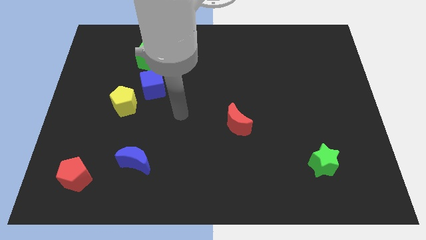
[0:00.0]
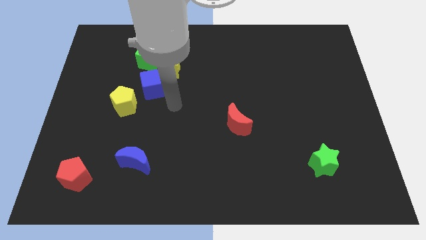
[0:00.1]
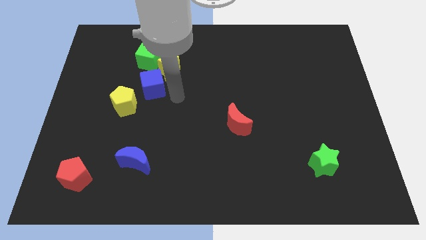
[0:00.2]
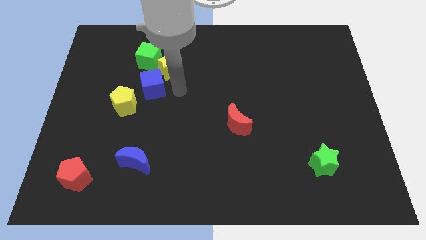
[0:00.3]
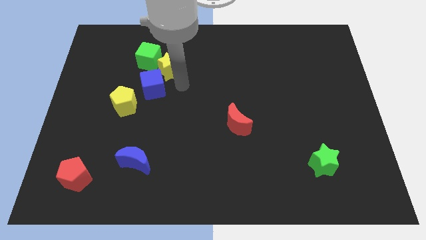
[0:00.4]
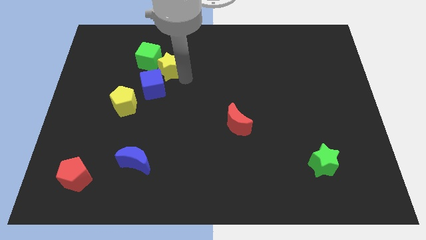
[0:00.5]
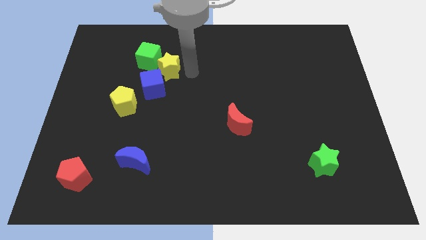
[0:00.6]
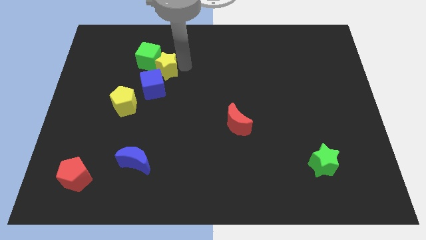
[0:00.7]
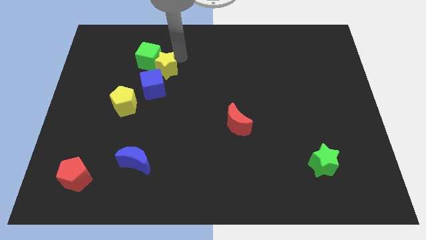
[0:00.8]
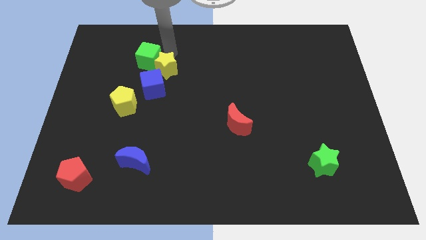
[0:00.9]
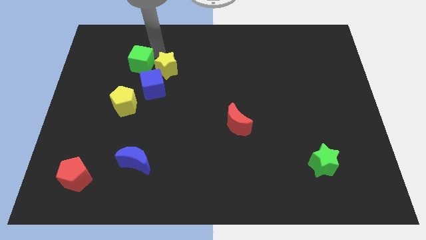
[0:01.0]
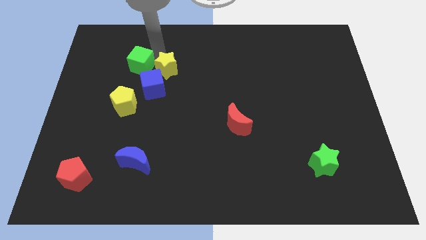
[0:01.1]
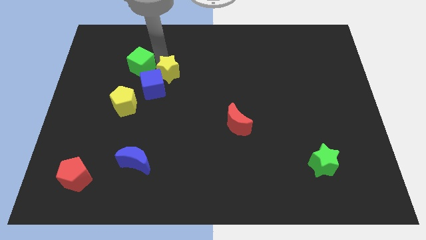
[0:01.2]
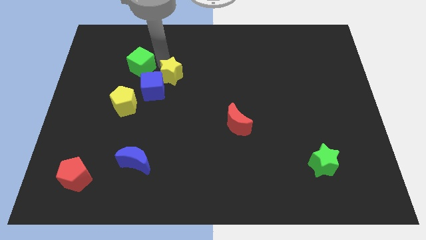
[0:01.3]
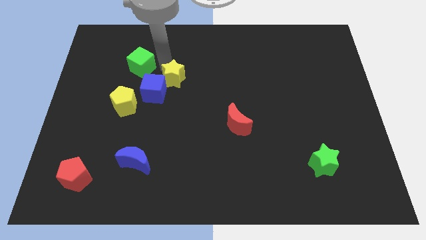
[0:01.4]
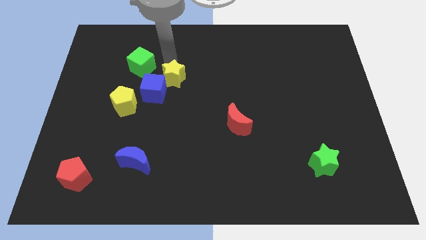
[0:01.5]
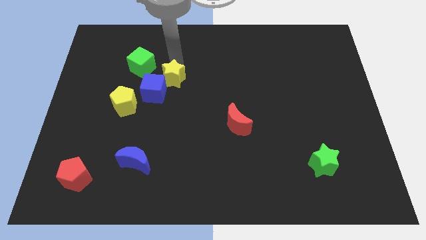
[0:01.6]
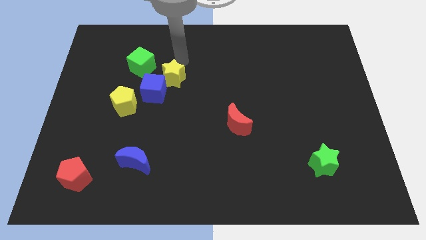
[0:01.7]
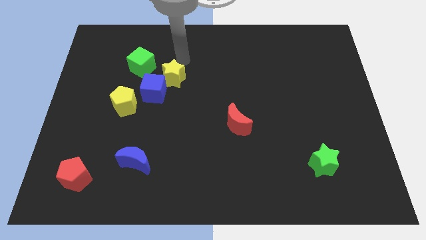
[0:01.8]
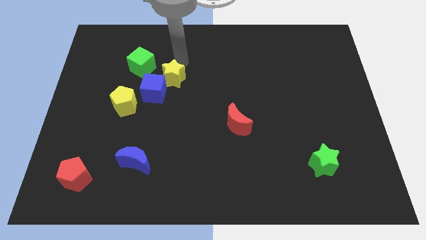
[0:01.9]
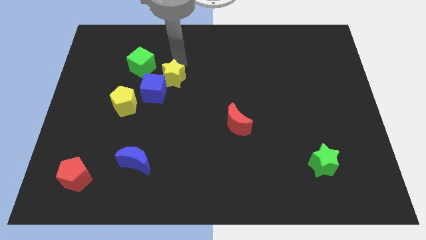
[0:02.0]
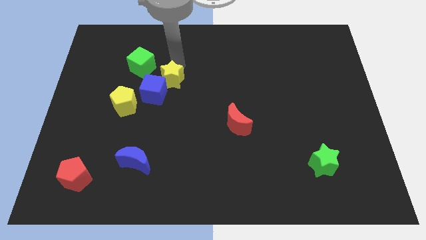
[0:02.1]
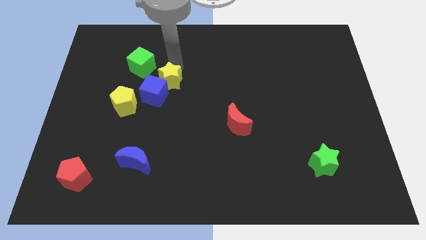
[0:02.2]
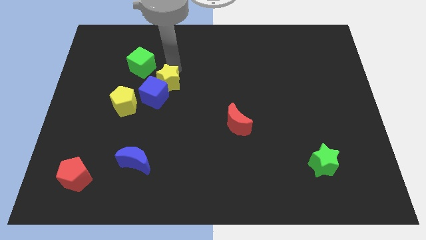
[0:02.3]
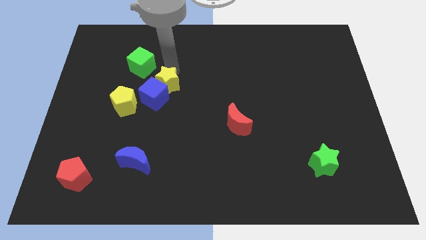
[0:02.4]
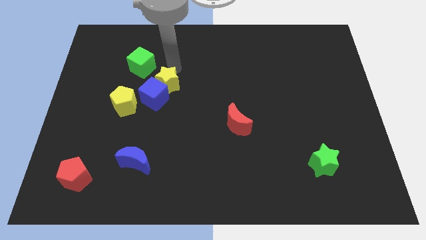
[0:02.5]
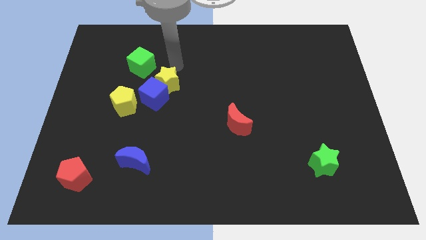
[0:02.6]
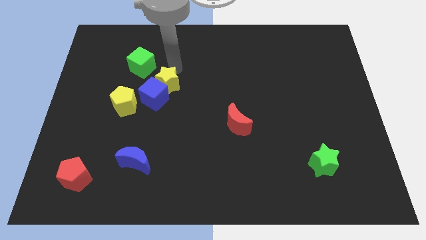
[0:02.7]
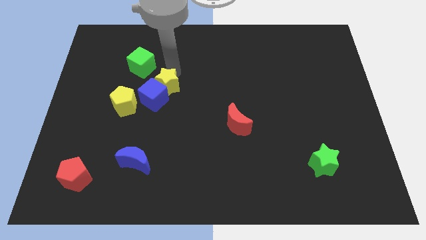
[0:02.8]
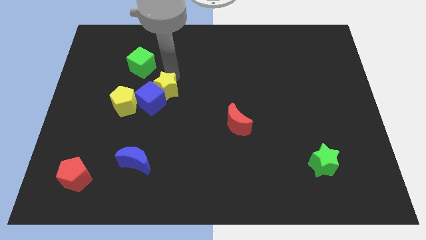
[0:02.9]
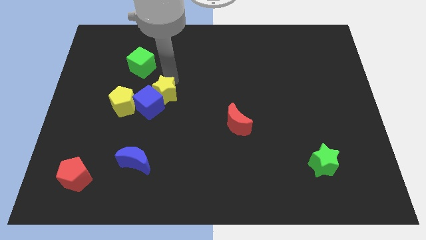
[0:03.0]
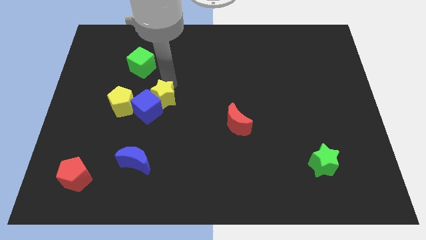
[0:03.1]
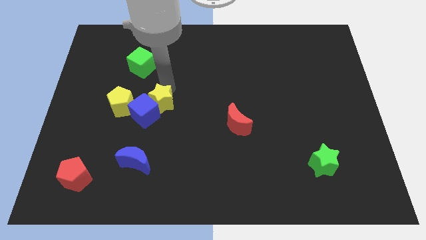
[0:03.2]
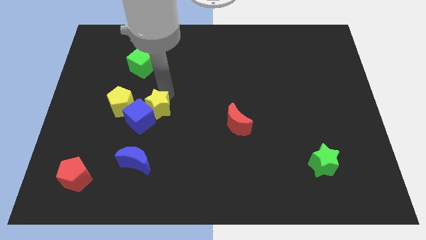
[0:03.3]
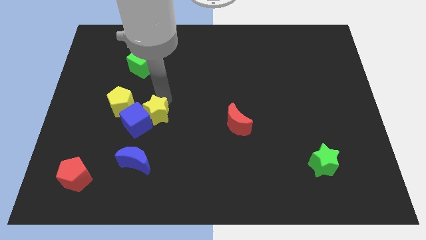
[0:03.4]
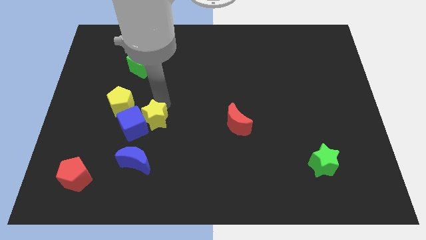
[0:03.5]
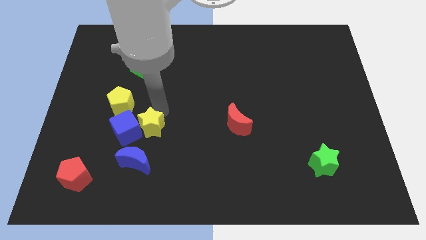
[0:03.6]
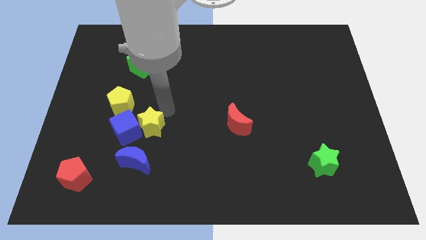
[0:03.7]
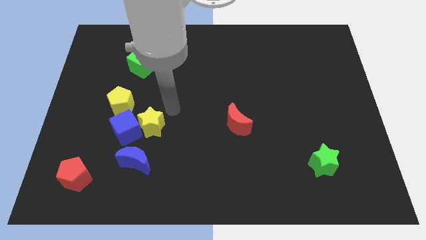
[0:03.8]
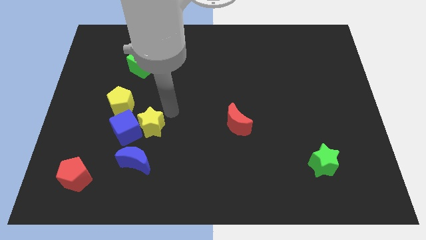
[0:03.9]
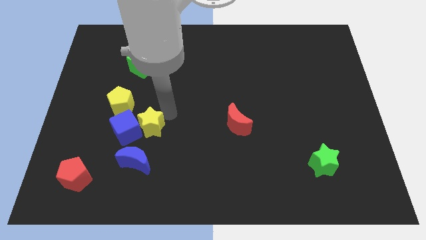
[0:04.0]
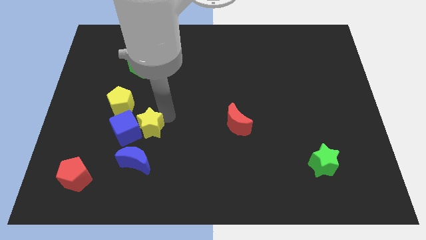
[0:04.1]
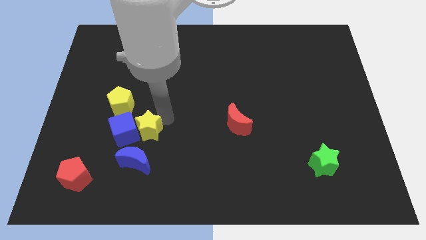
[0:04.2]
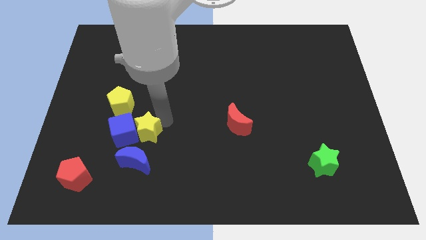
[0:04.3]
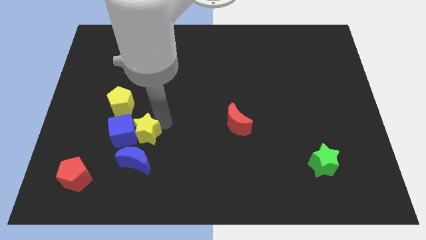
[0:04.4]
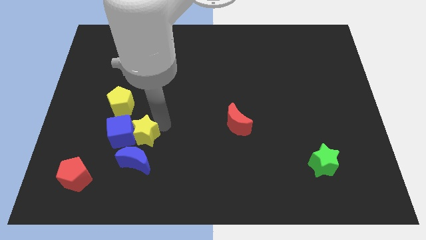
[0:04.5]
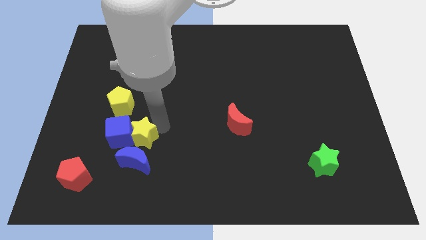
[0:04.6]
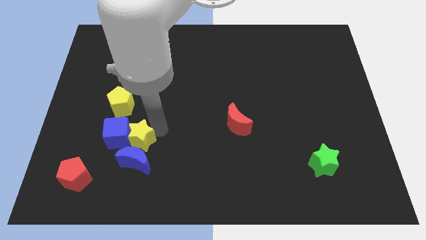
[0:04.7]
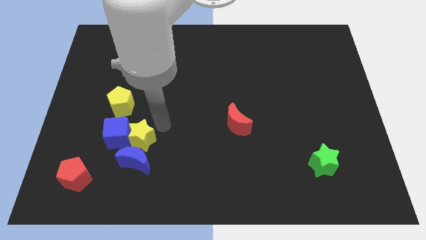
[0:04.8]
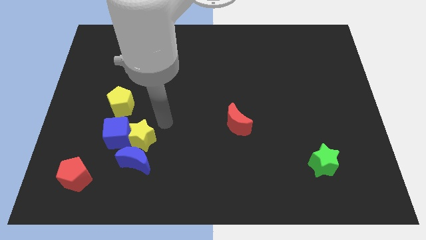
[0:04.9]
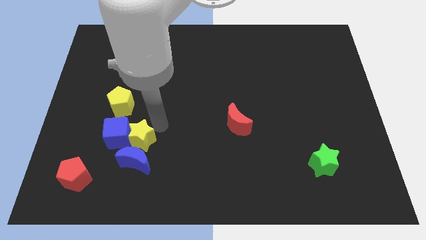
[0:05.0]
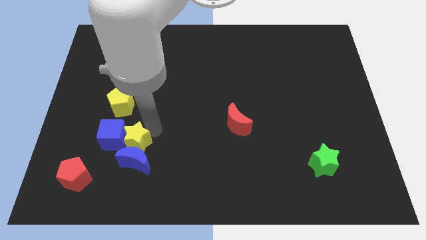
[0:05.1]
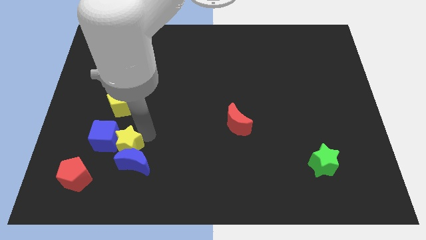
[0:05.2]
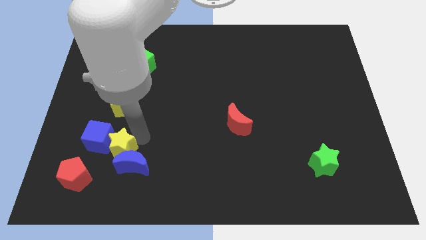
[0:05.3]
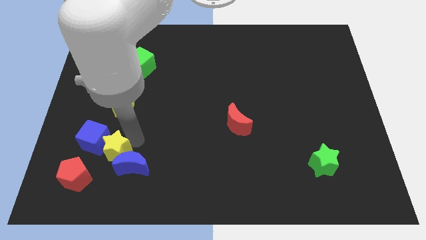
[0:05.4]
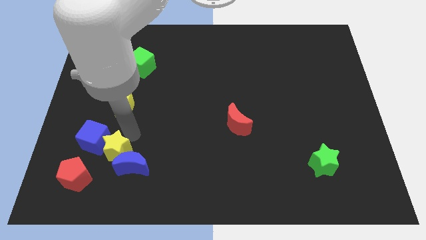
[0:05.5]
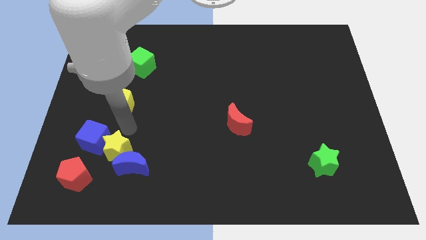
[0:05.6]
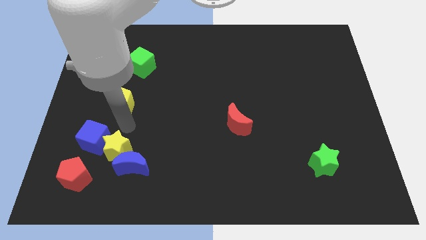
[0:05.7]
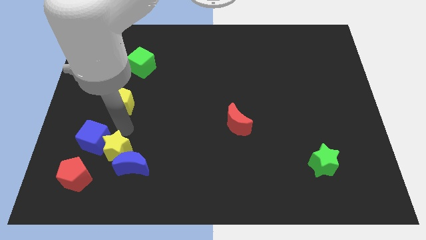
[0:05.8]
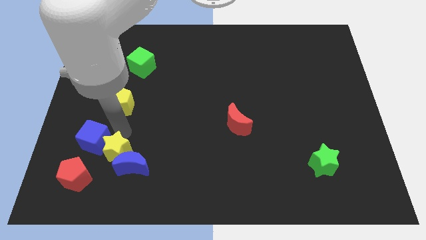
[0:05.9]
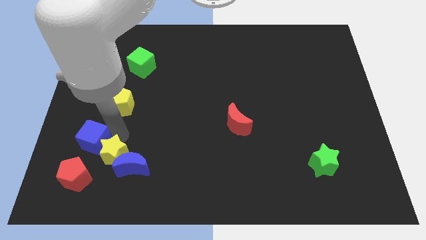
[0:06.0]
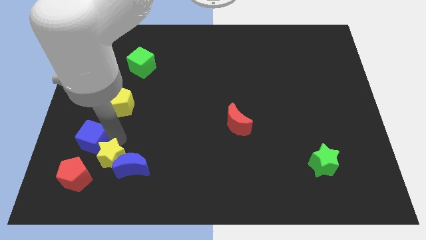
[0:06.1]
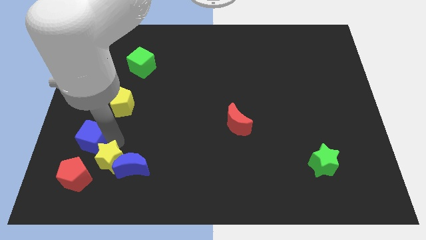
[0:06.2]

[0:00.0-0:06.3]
slide the yellow star to the bottom left of the blue moon

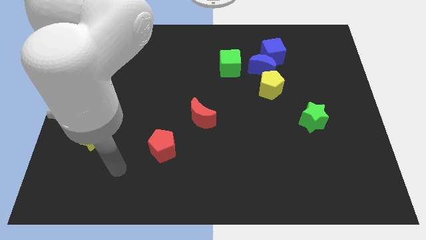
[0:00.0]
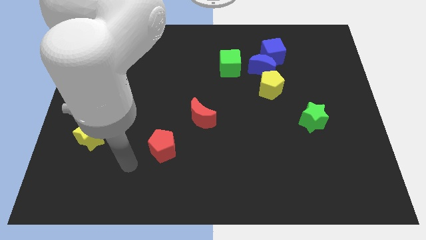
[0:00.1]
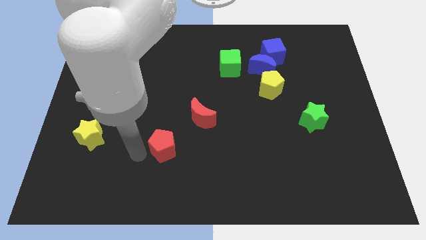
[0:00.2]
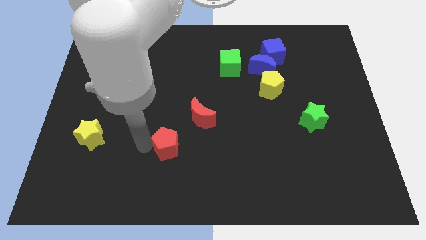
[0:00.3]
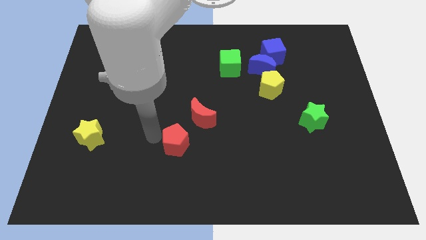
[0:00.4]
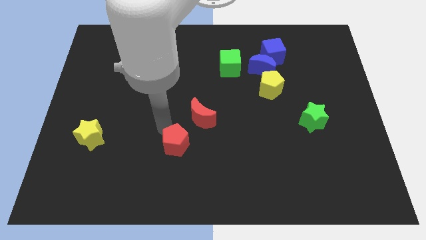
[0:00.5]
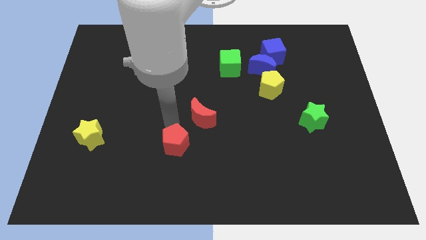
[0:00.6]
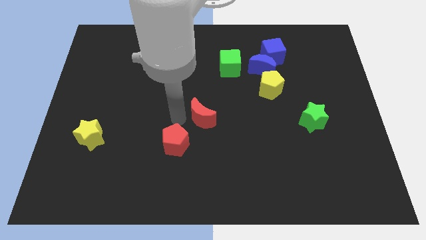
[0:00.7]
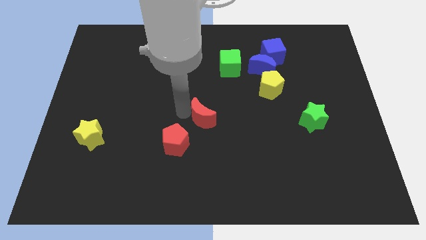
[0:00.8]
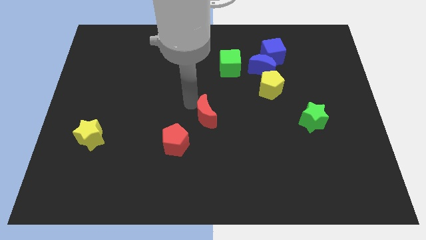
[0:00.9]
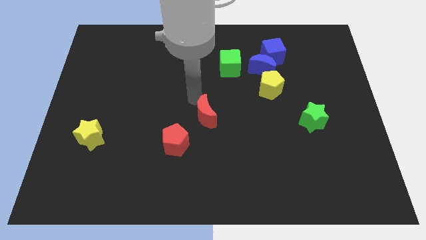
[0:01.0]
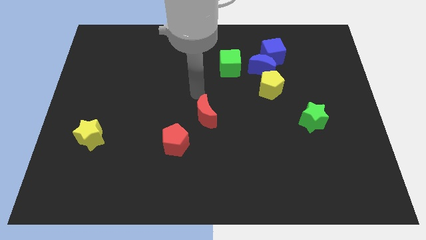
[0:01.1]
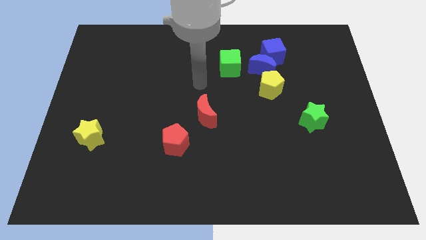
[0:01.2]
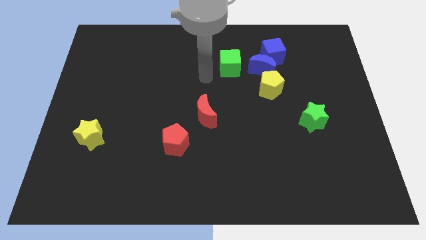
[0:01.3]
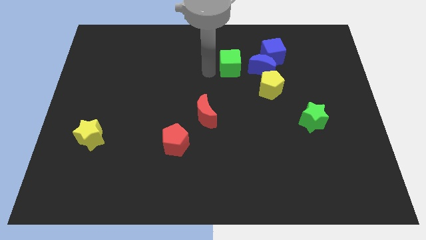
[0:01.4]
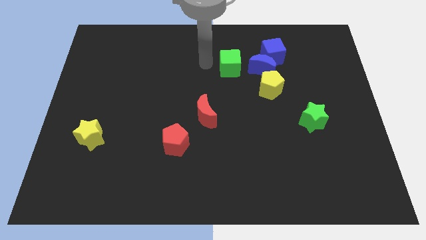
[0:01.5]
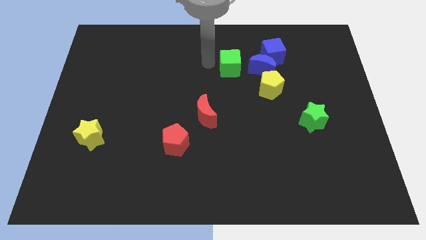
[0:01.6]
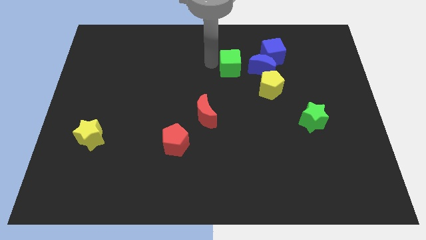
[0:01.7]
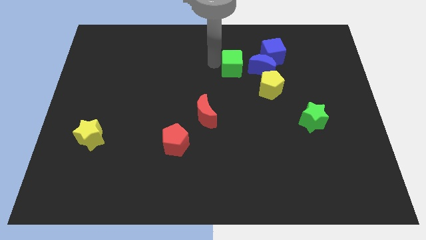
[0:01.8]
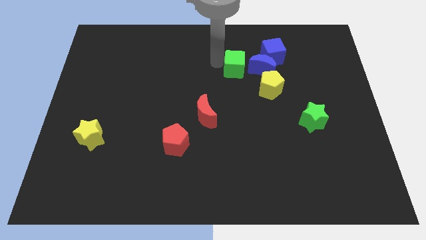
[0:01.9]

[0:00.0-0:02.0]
move the green cube to the bottom left side of the blue cube
